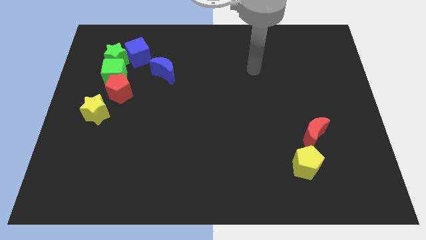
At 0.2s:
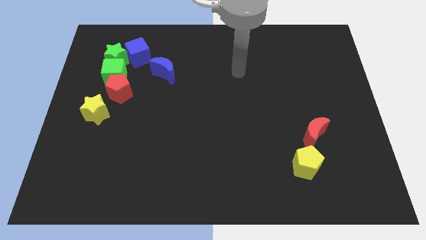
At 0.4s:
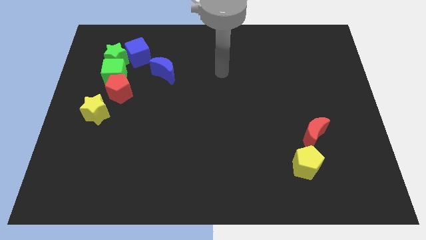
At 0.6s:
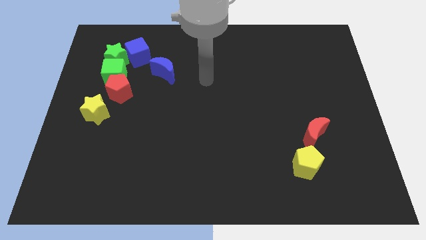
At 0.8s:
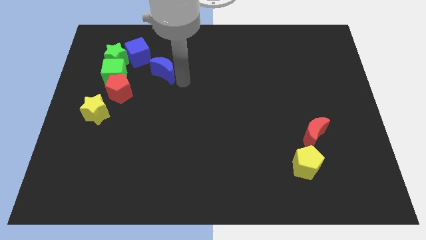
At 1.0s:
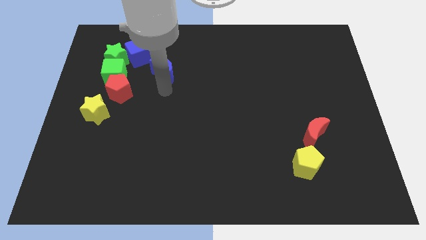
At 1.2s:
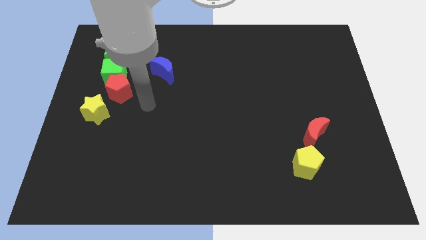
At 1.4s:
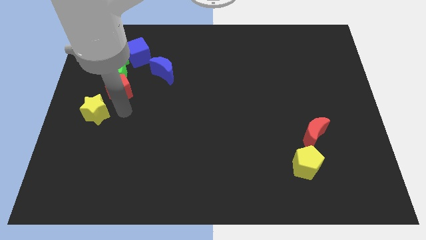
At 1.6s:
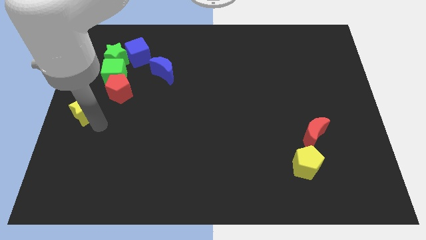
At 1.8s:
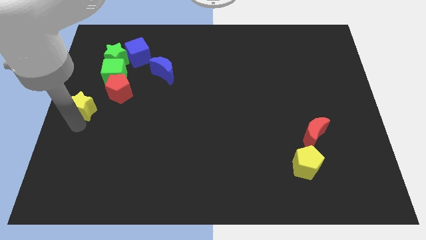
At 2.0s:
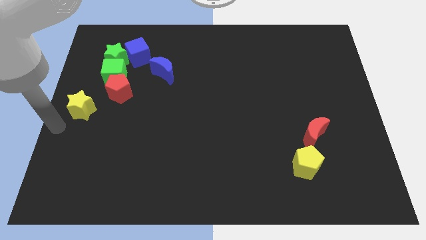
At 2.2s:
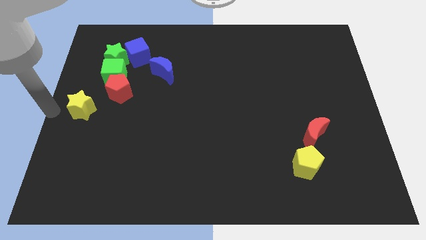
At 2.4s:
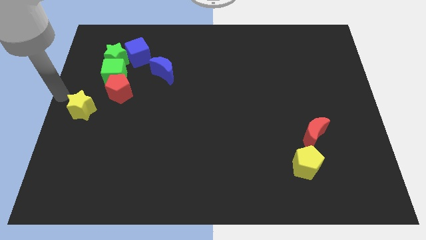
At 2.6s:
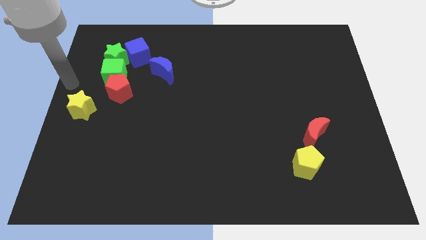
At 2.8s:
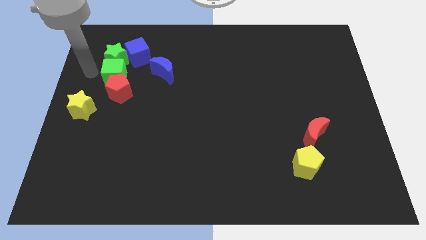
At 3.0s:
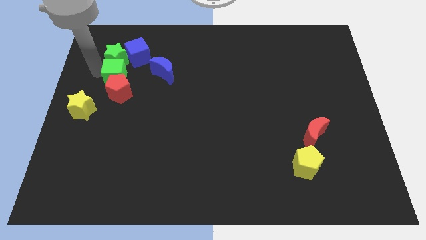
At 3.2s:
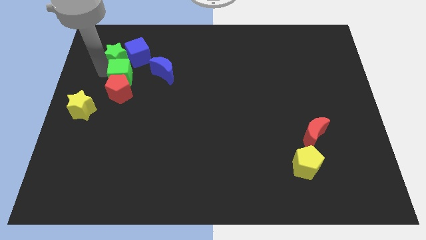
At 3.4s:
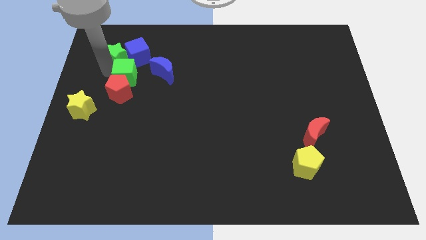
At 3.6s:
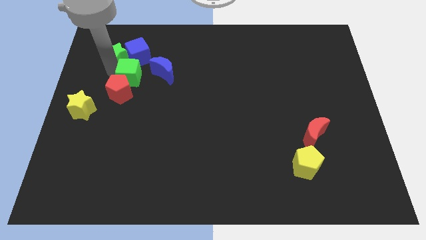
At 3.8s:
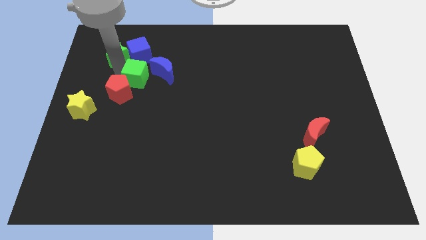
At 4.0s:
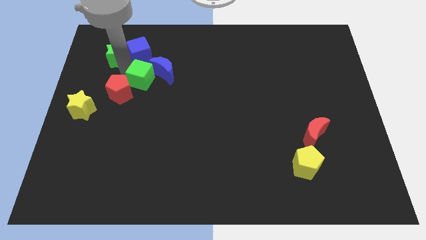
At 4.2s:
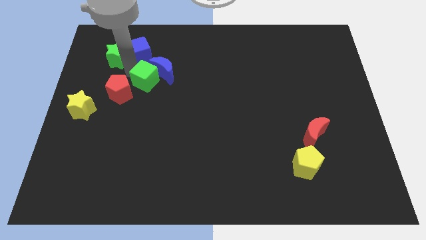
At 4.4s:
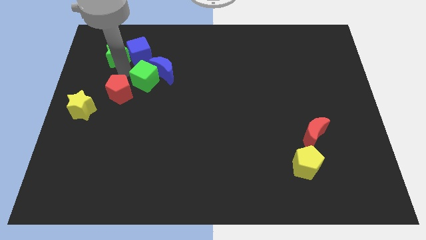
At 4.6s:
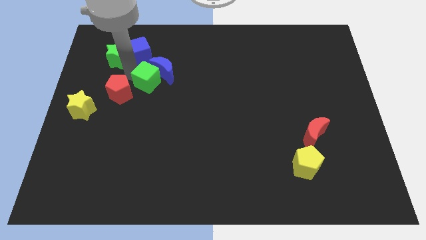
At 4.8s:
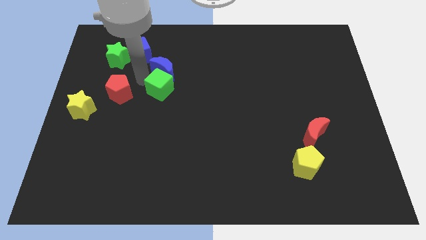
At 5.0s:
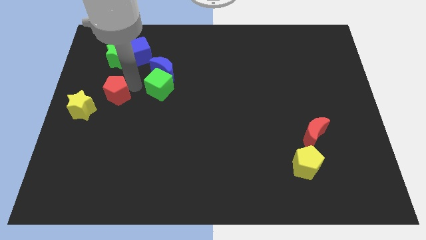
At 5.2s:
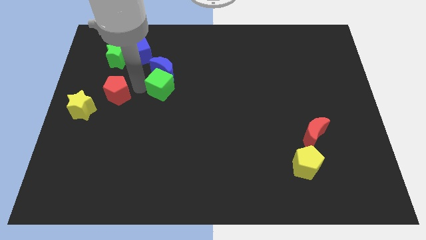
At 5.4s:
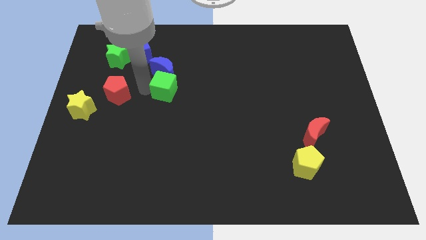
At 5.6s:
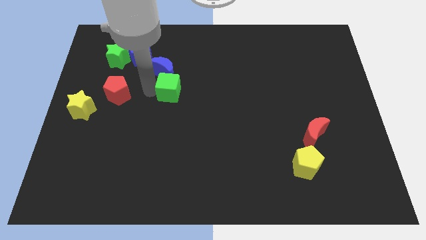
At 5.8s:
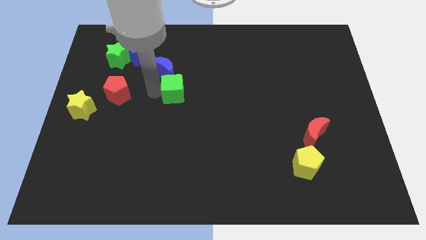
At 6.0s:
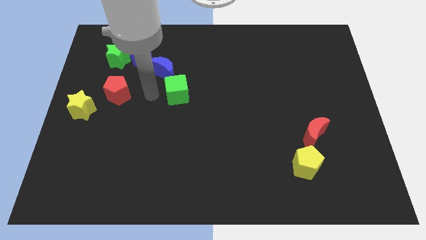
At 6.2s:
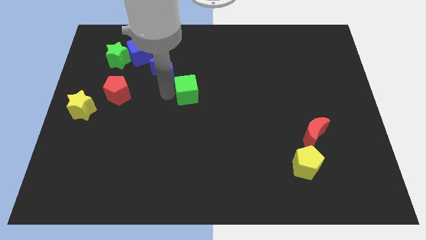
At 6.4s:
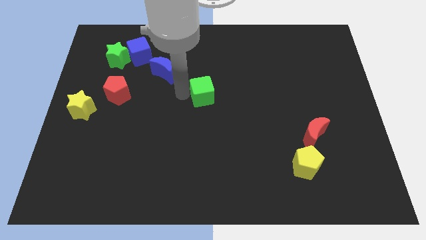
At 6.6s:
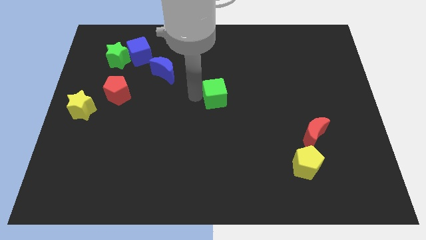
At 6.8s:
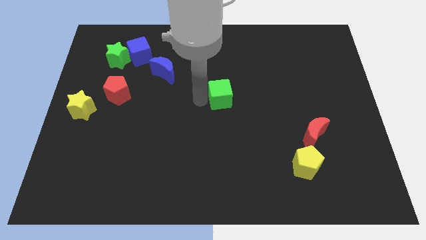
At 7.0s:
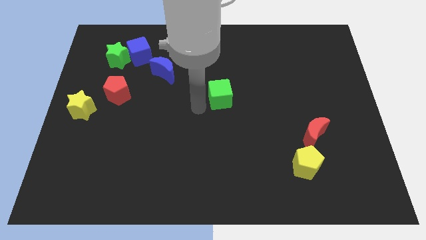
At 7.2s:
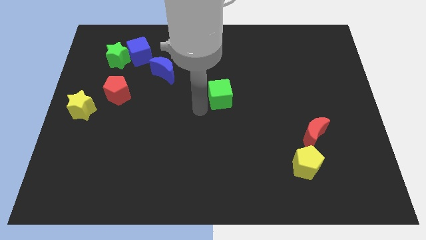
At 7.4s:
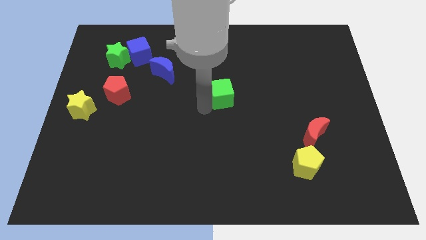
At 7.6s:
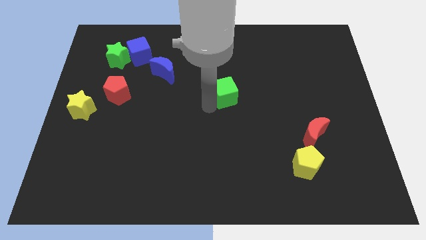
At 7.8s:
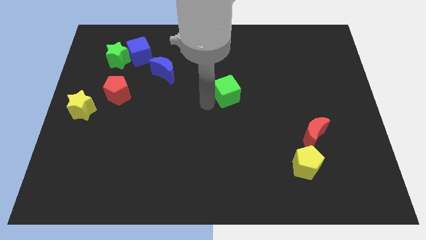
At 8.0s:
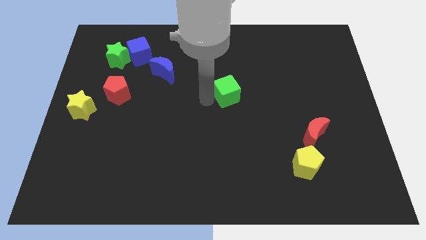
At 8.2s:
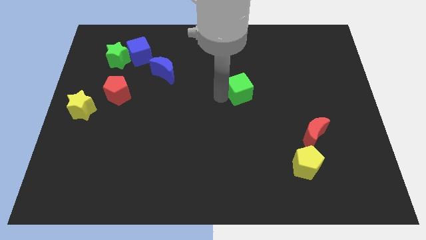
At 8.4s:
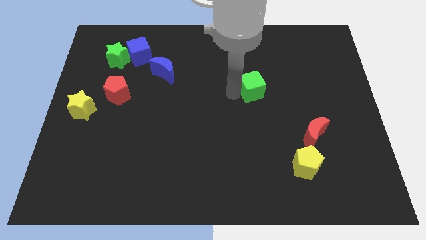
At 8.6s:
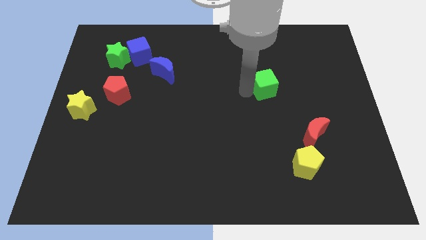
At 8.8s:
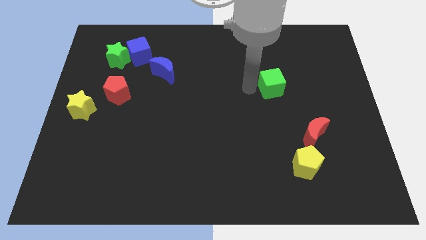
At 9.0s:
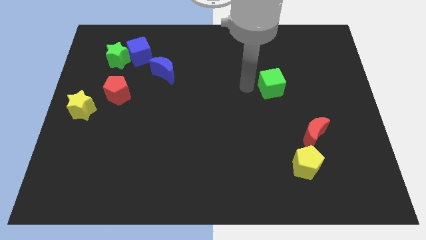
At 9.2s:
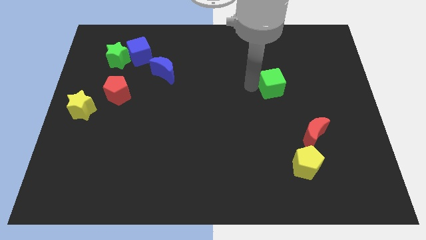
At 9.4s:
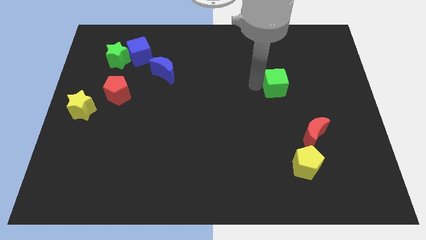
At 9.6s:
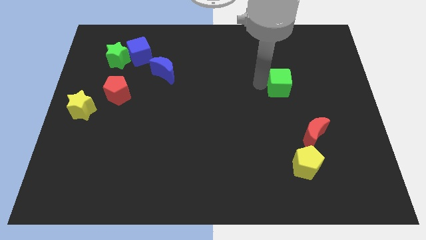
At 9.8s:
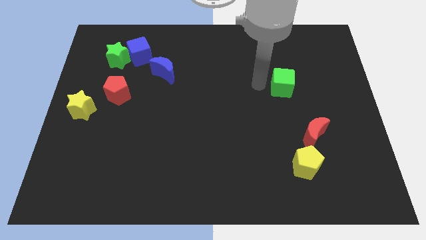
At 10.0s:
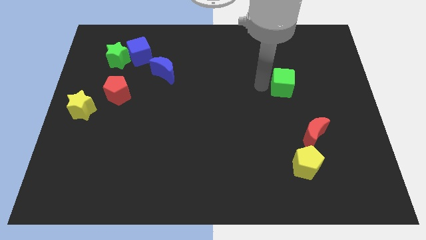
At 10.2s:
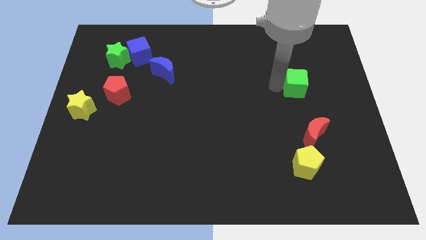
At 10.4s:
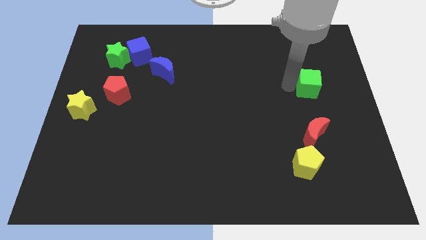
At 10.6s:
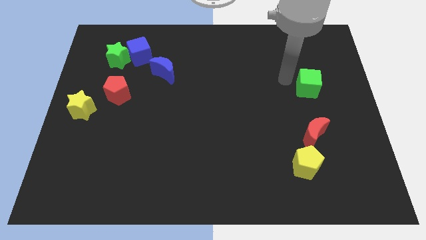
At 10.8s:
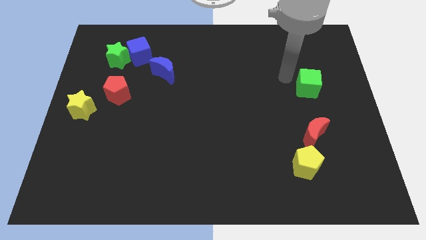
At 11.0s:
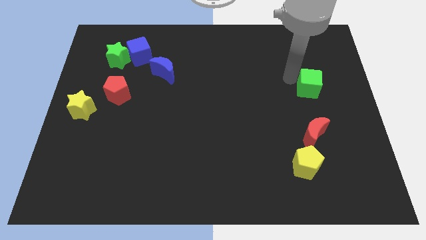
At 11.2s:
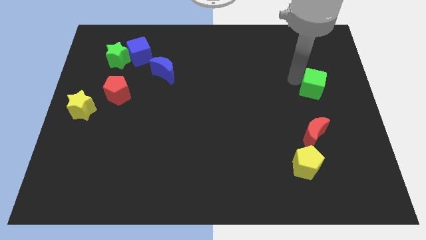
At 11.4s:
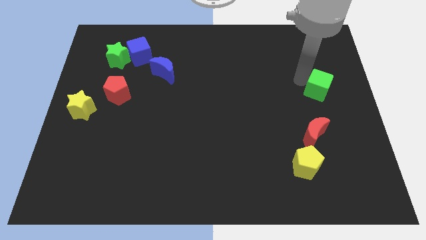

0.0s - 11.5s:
put the green cube to the center right

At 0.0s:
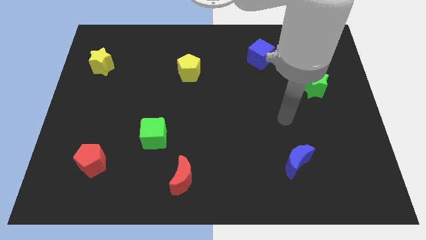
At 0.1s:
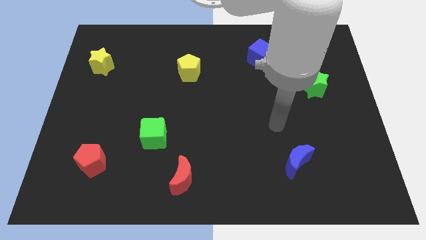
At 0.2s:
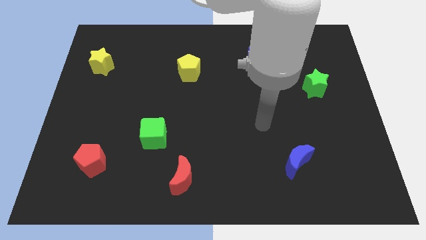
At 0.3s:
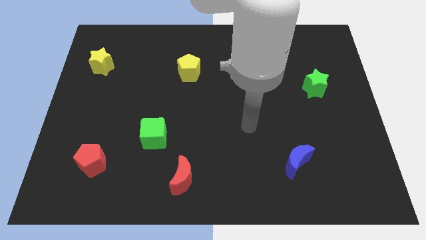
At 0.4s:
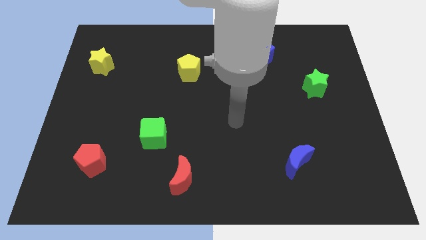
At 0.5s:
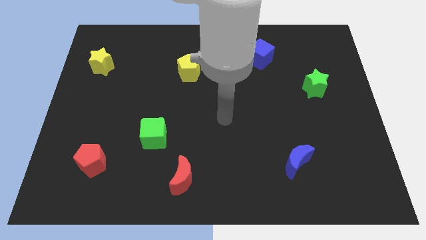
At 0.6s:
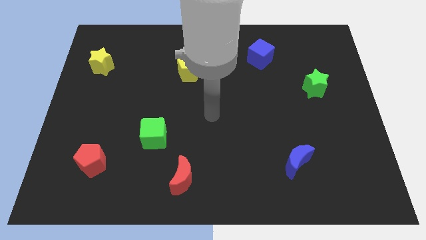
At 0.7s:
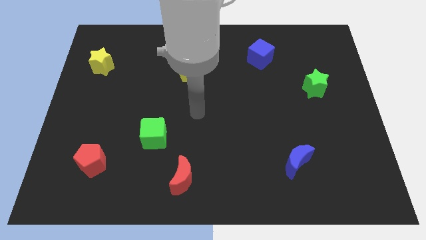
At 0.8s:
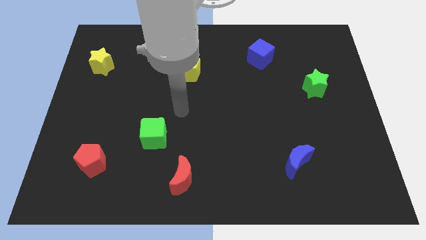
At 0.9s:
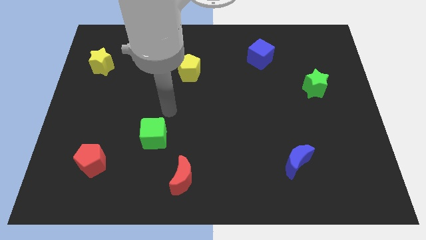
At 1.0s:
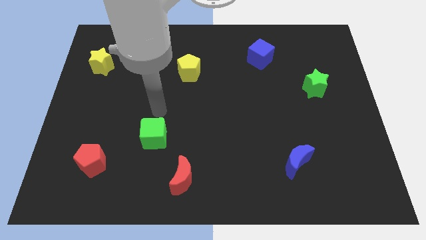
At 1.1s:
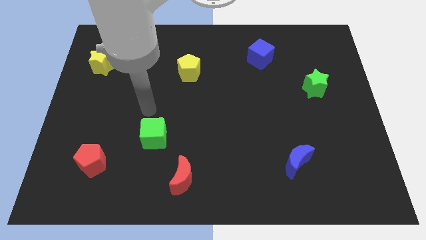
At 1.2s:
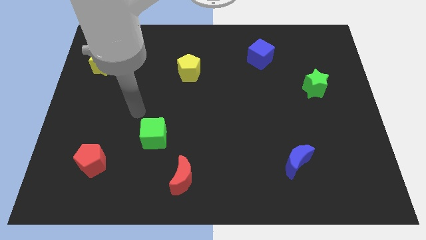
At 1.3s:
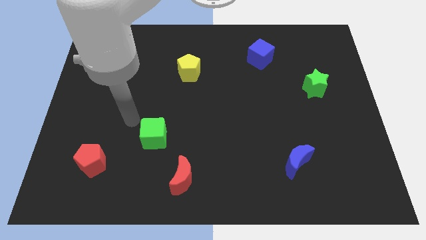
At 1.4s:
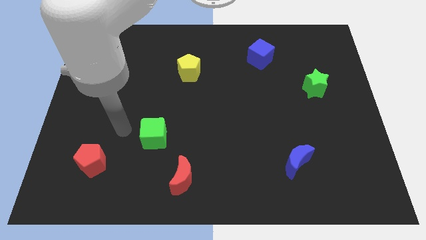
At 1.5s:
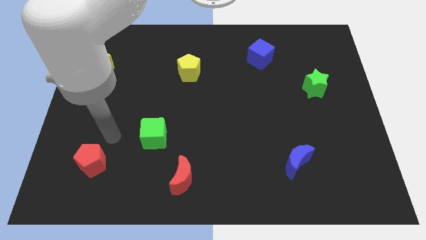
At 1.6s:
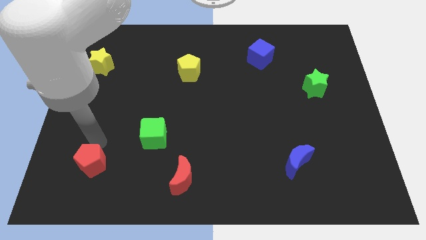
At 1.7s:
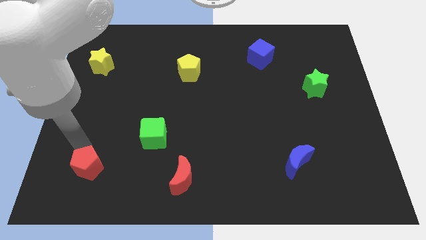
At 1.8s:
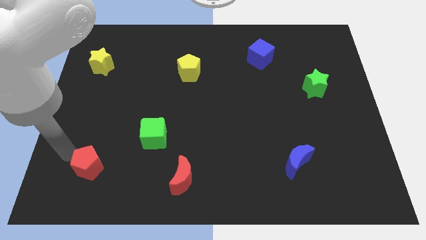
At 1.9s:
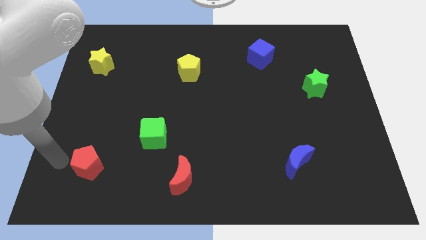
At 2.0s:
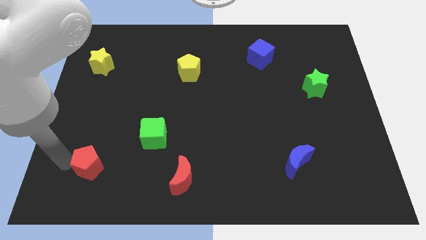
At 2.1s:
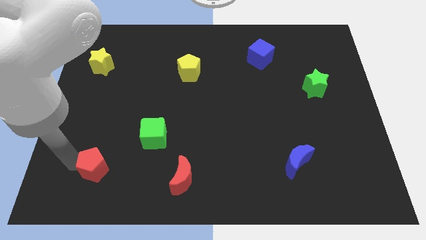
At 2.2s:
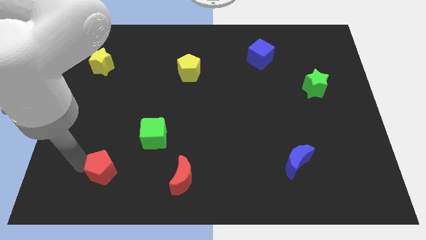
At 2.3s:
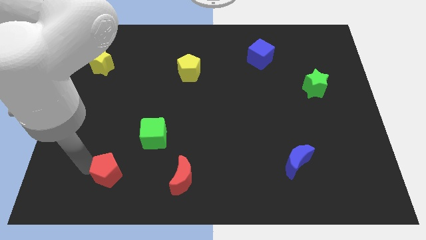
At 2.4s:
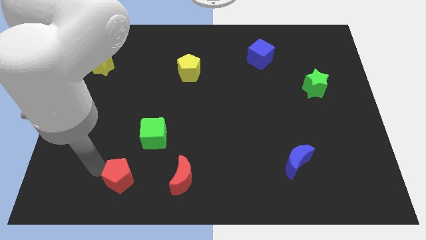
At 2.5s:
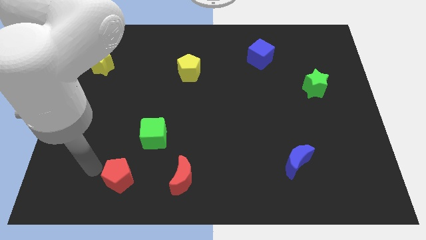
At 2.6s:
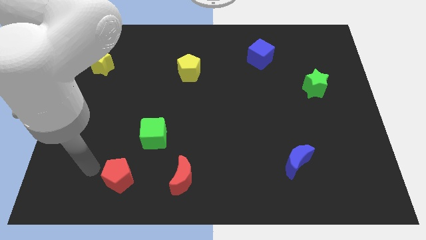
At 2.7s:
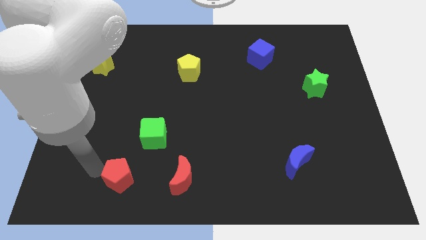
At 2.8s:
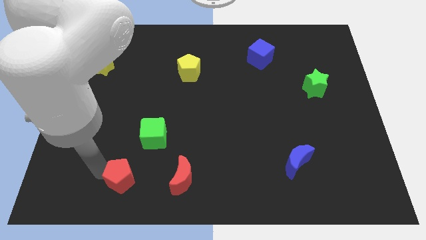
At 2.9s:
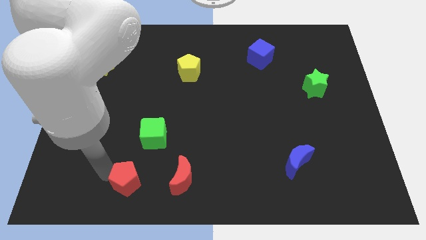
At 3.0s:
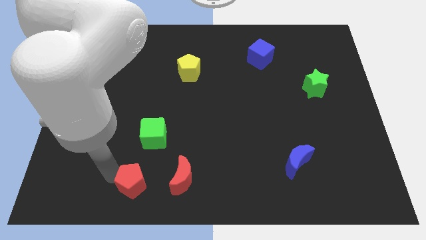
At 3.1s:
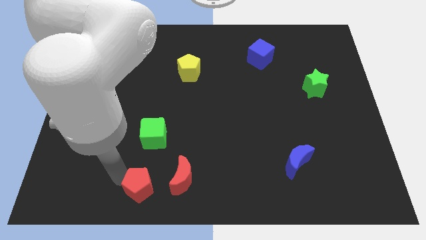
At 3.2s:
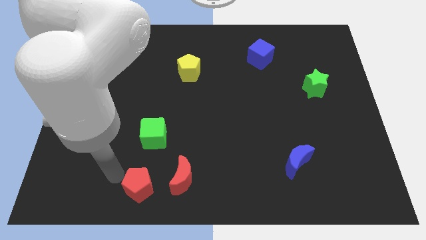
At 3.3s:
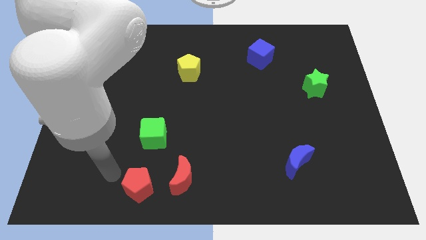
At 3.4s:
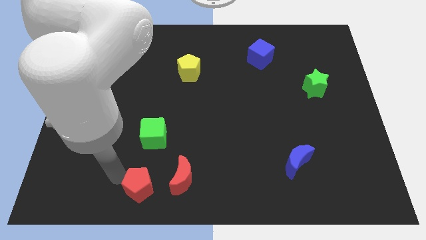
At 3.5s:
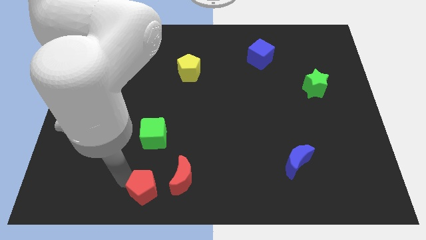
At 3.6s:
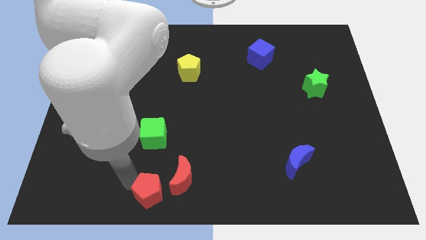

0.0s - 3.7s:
slide the red pentagon to the bottom
